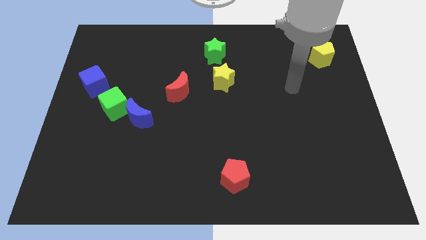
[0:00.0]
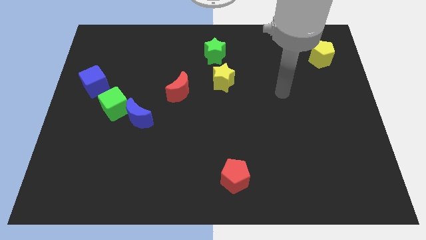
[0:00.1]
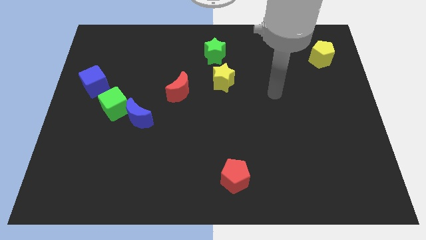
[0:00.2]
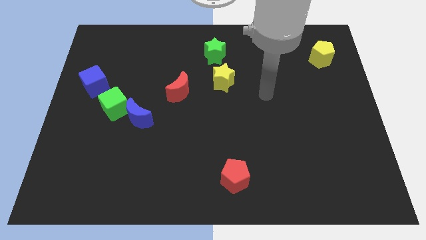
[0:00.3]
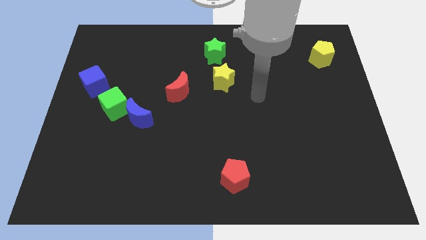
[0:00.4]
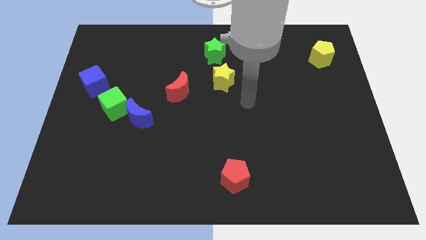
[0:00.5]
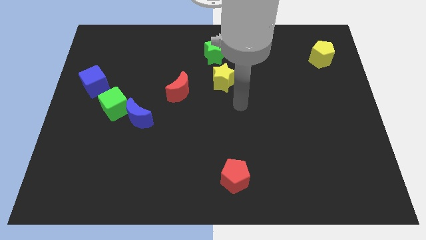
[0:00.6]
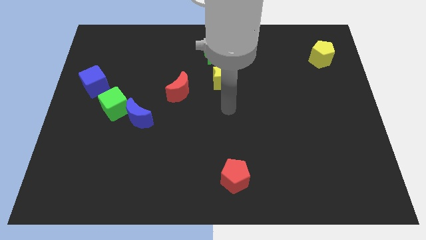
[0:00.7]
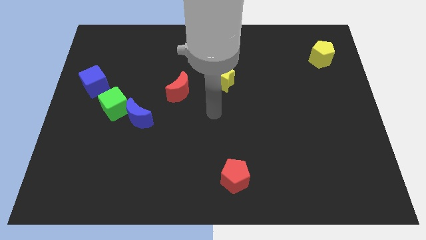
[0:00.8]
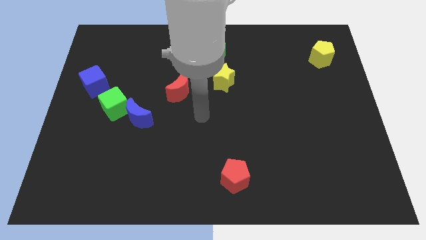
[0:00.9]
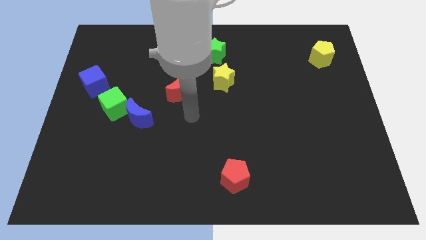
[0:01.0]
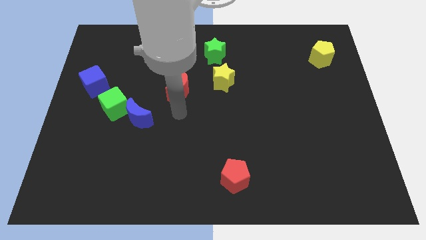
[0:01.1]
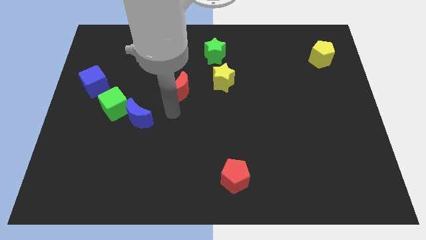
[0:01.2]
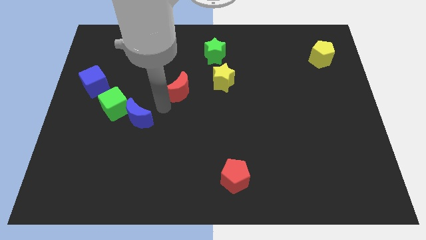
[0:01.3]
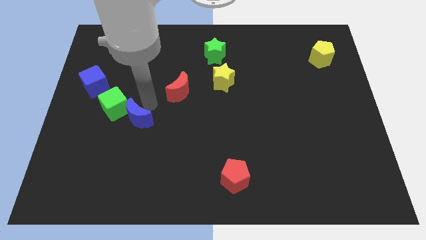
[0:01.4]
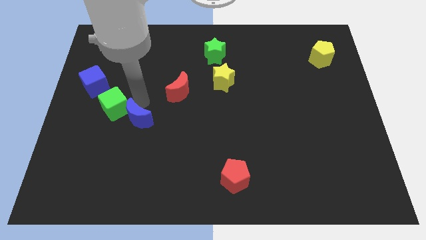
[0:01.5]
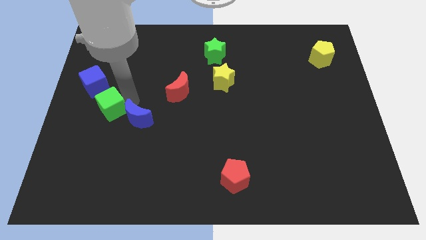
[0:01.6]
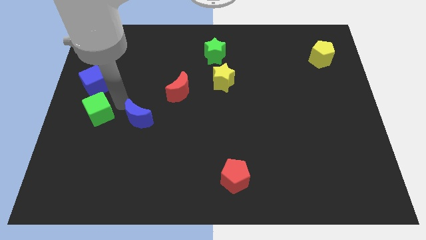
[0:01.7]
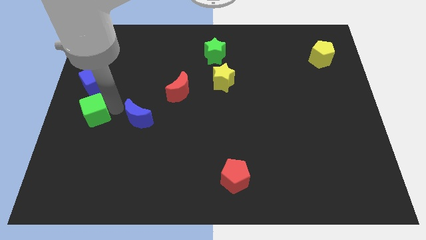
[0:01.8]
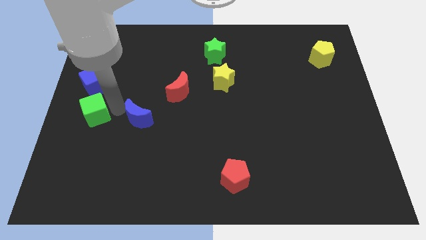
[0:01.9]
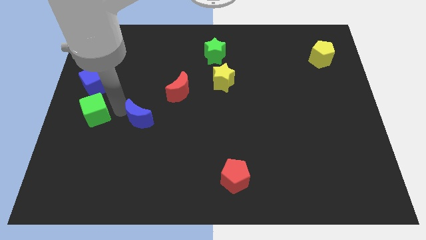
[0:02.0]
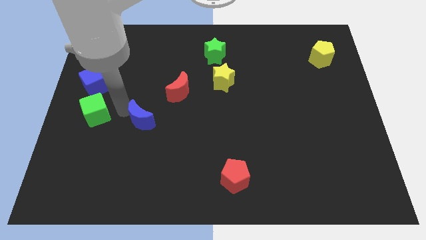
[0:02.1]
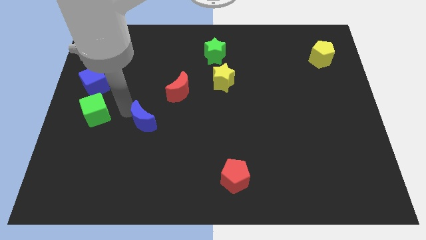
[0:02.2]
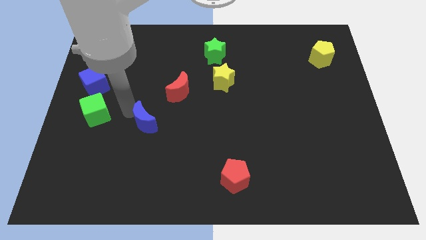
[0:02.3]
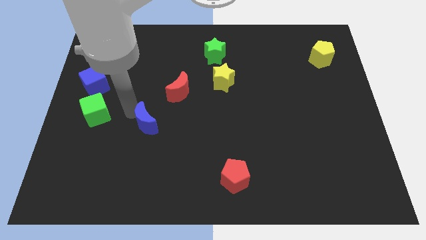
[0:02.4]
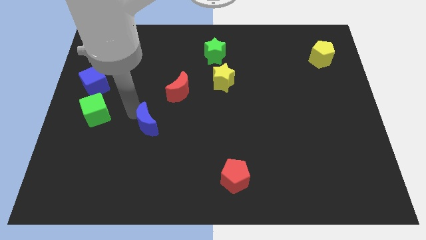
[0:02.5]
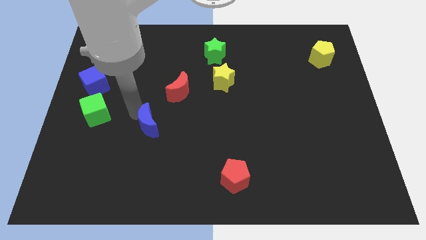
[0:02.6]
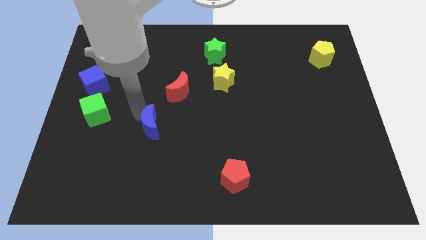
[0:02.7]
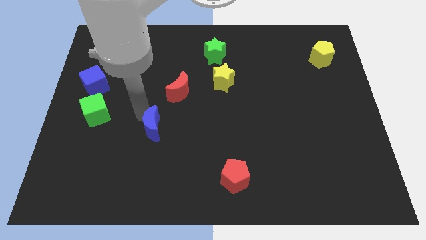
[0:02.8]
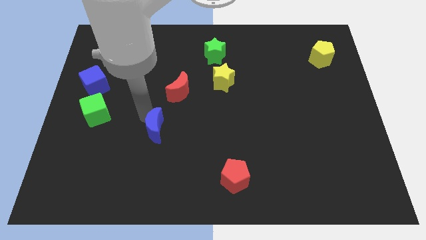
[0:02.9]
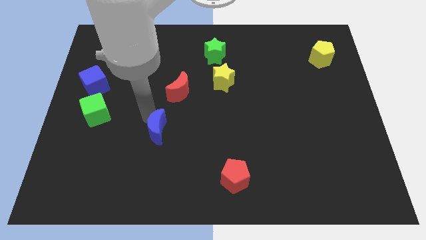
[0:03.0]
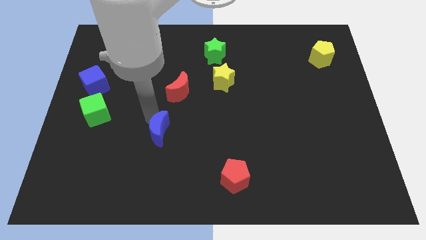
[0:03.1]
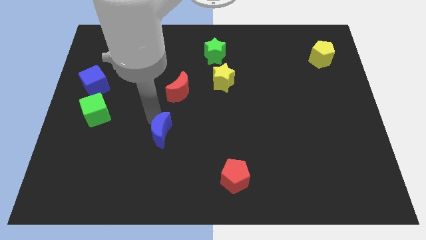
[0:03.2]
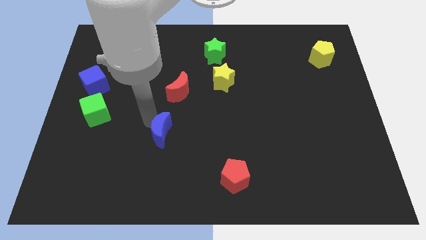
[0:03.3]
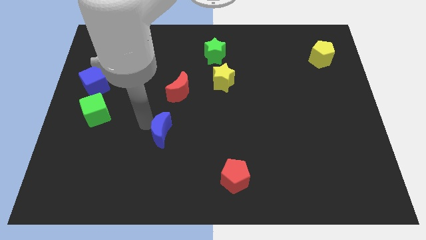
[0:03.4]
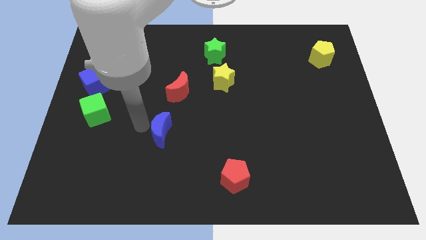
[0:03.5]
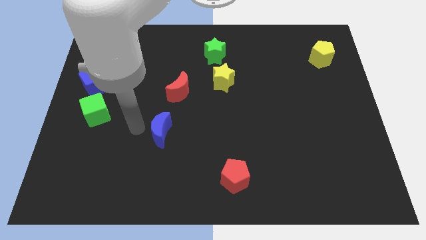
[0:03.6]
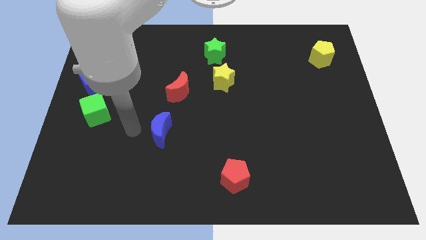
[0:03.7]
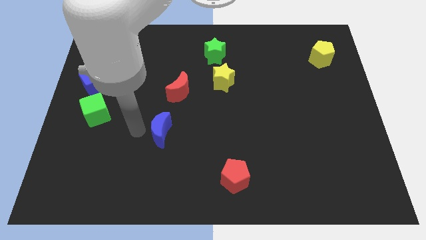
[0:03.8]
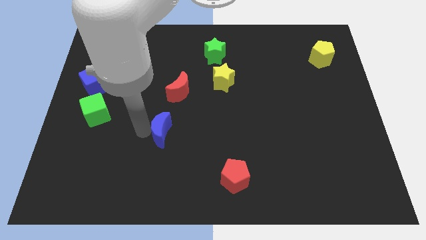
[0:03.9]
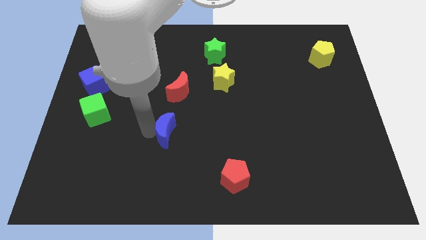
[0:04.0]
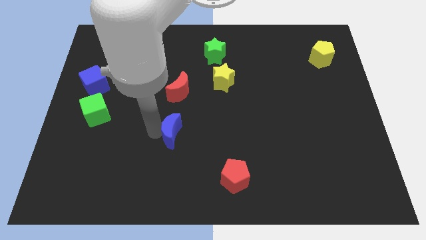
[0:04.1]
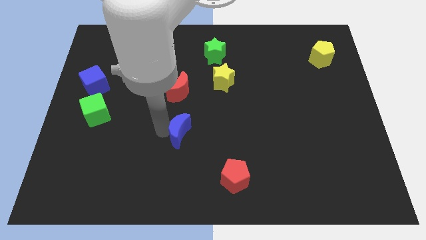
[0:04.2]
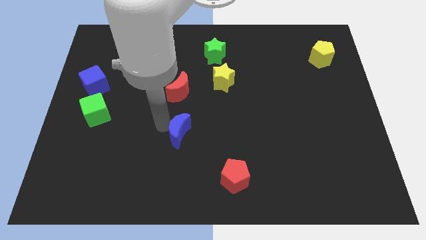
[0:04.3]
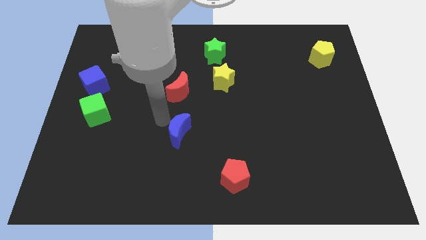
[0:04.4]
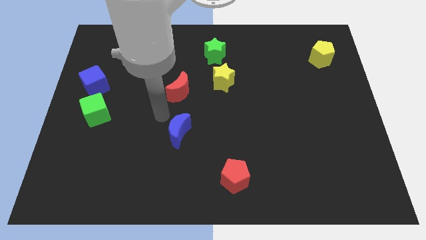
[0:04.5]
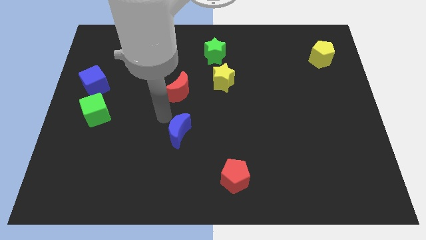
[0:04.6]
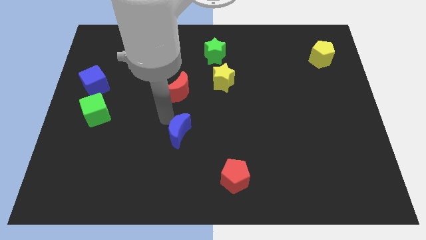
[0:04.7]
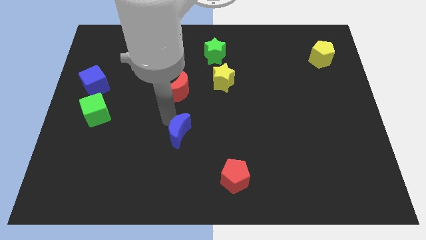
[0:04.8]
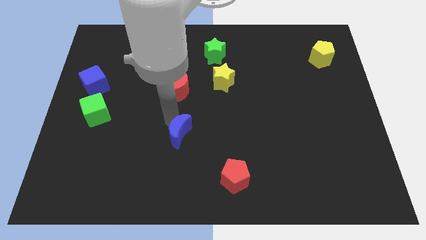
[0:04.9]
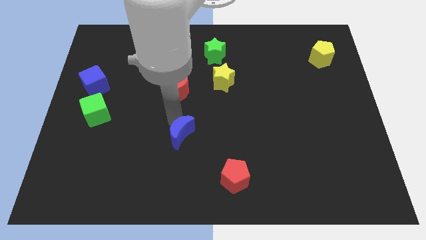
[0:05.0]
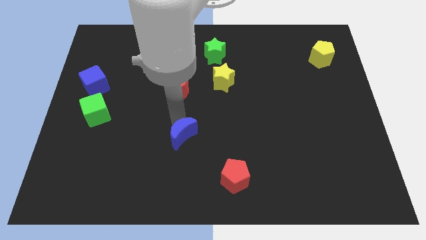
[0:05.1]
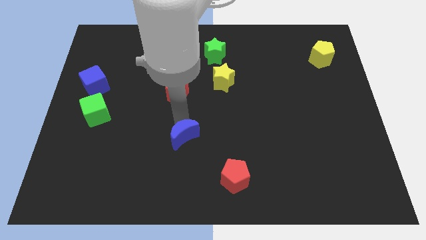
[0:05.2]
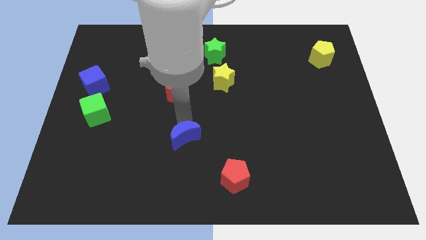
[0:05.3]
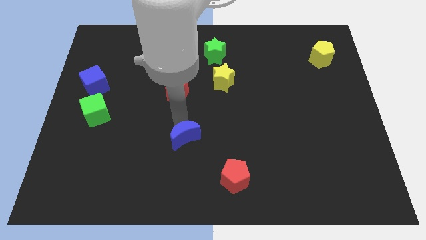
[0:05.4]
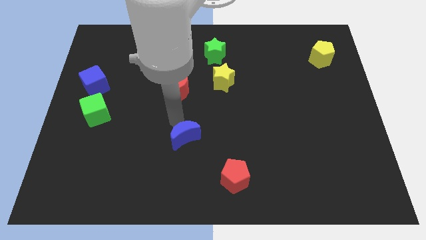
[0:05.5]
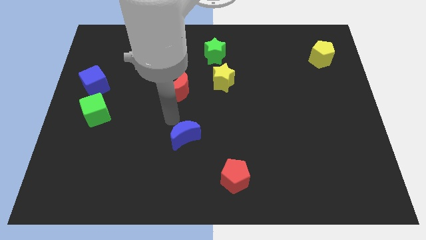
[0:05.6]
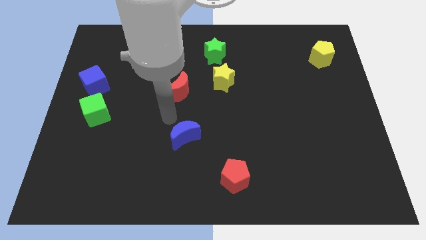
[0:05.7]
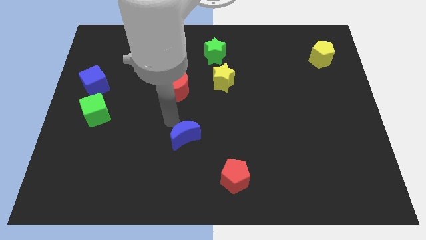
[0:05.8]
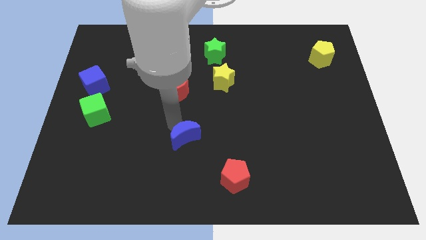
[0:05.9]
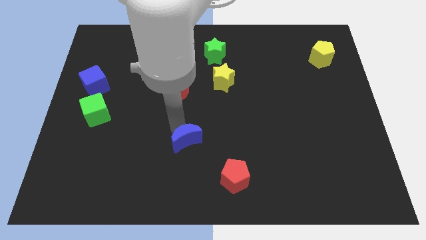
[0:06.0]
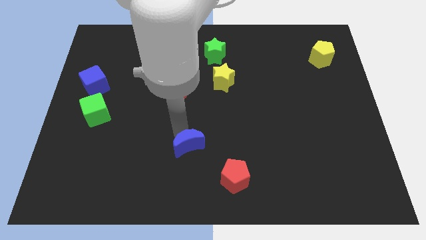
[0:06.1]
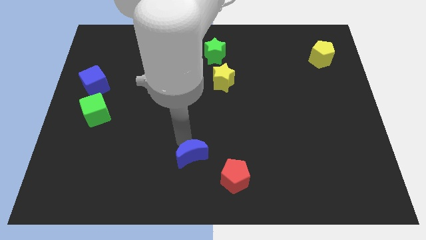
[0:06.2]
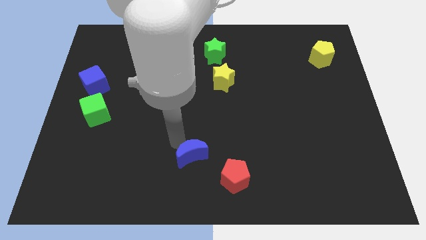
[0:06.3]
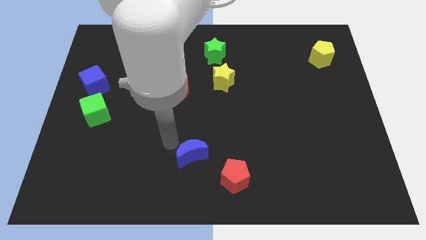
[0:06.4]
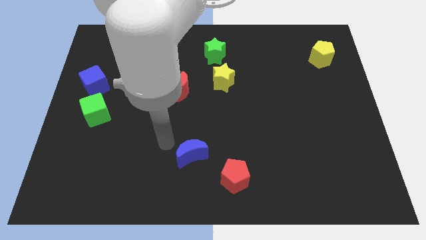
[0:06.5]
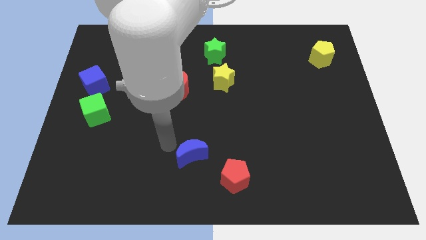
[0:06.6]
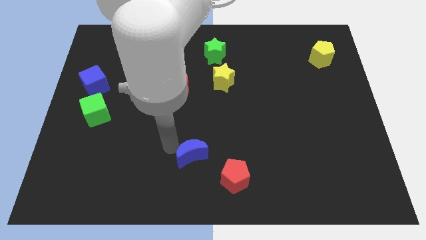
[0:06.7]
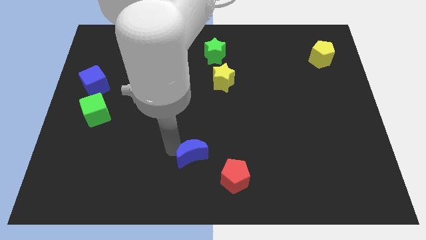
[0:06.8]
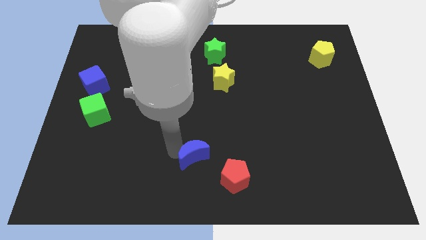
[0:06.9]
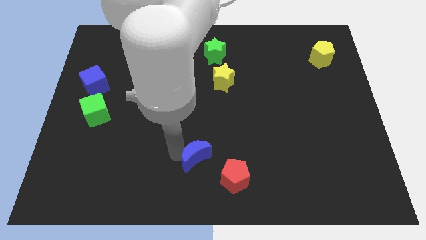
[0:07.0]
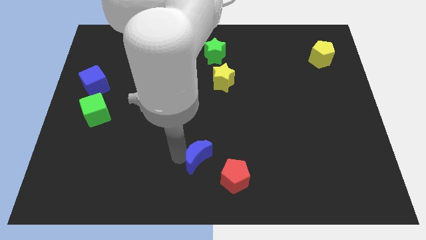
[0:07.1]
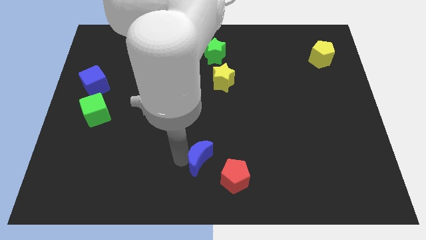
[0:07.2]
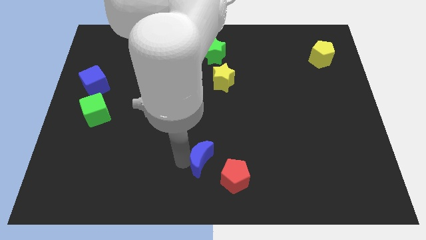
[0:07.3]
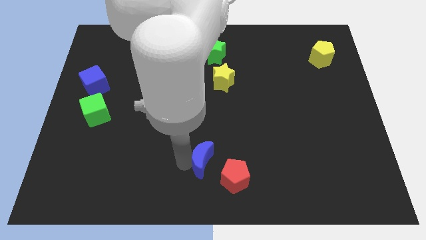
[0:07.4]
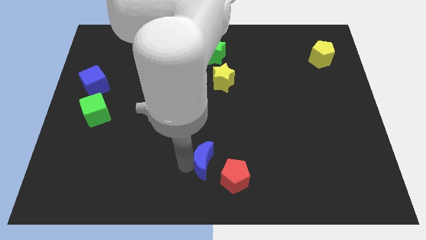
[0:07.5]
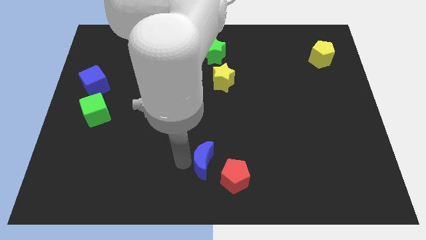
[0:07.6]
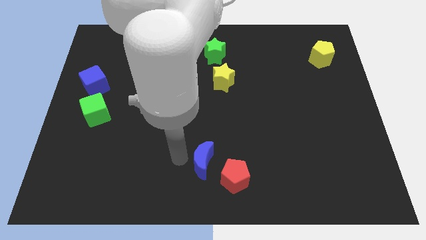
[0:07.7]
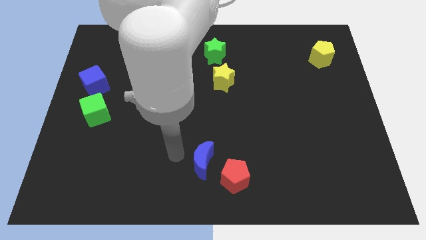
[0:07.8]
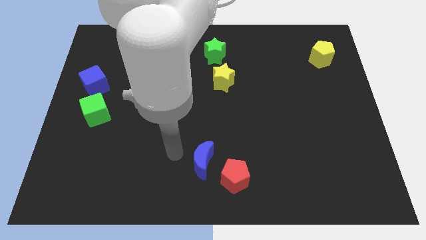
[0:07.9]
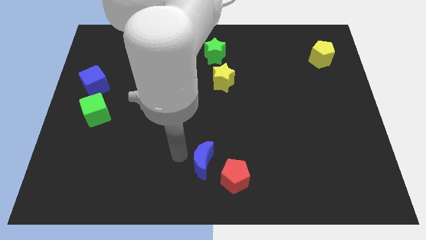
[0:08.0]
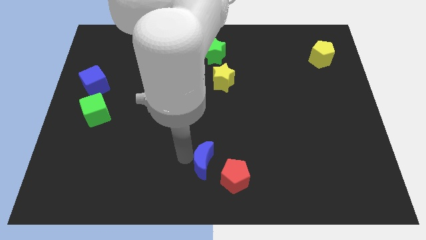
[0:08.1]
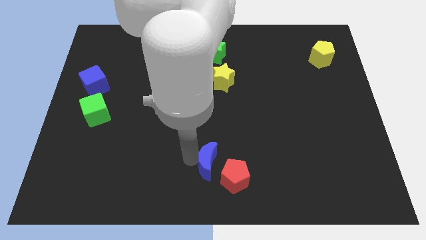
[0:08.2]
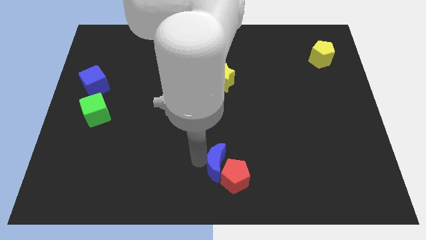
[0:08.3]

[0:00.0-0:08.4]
slide the blue moon close to the red pentagon
